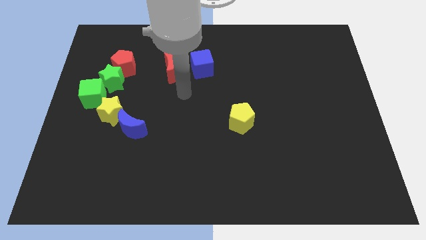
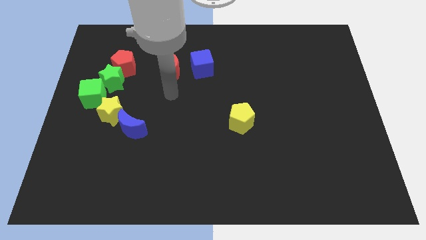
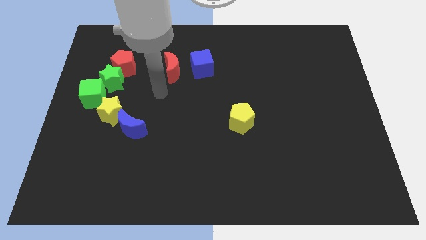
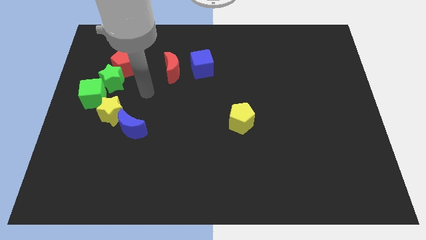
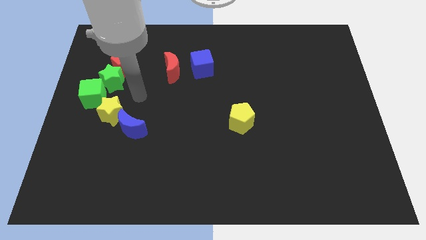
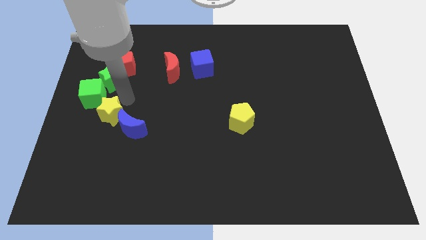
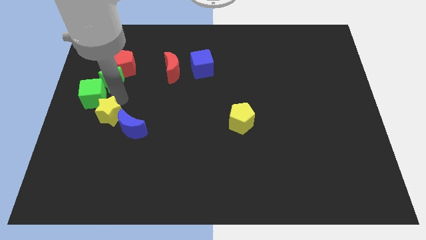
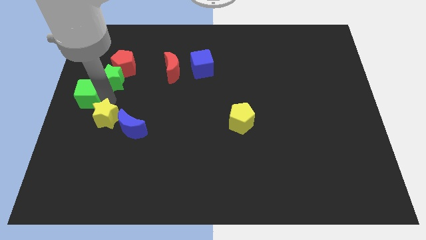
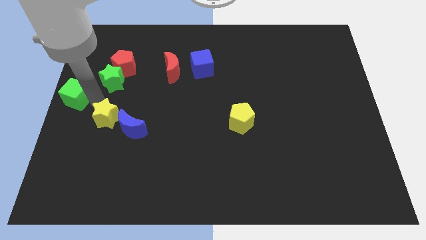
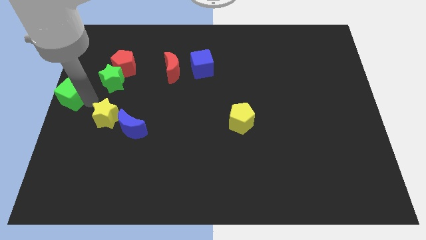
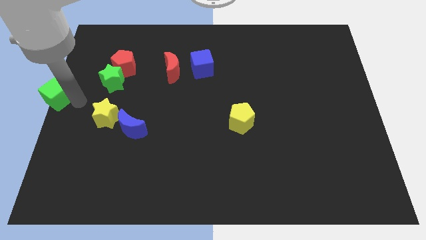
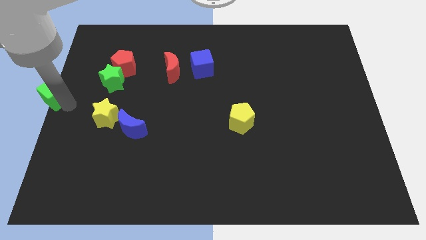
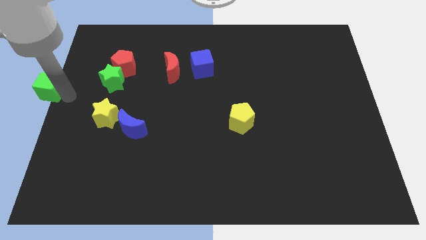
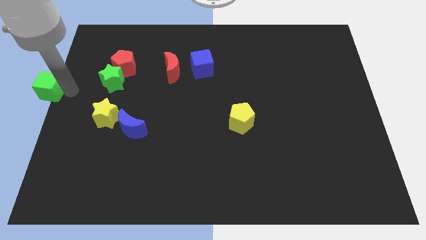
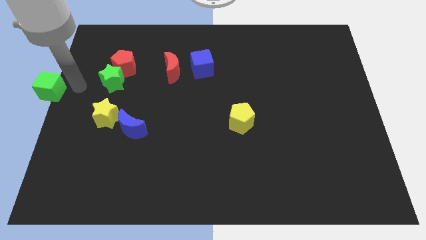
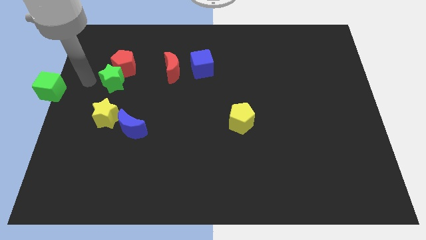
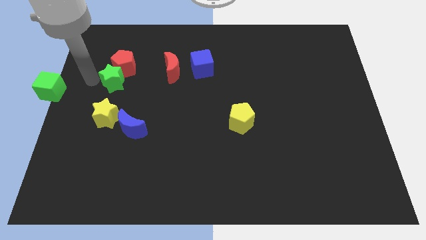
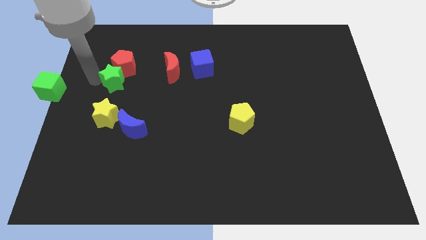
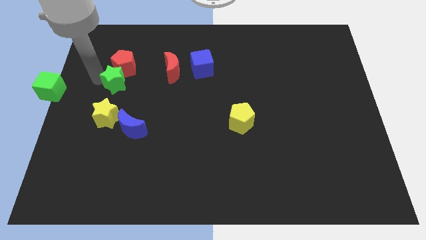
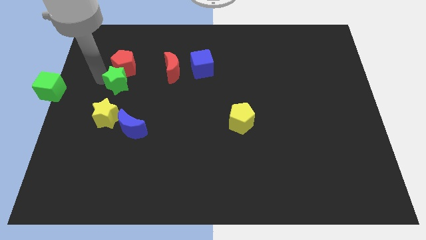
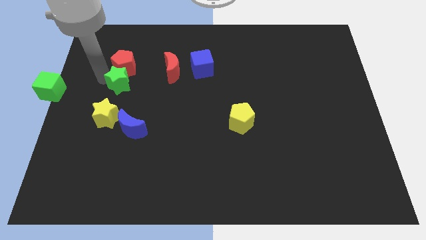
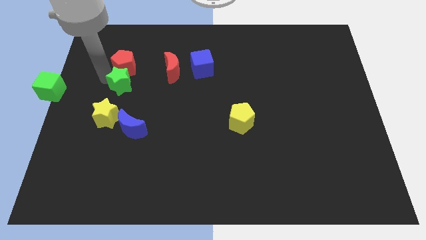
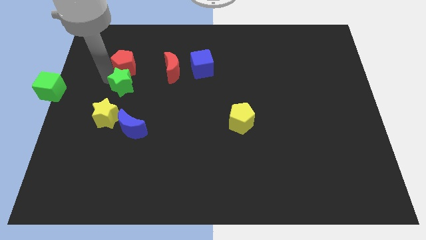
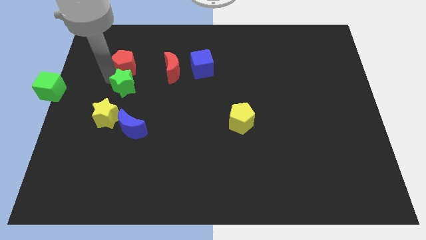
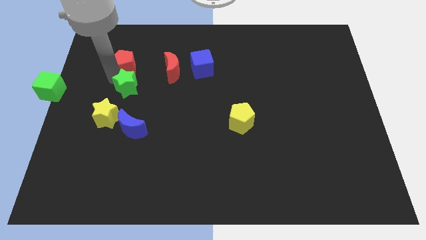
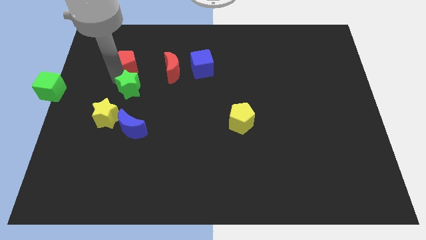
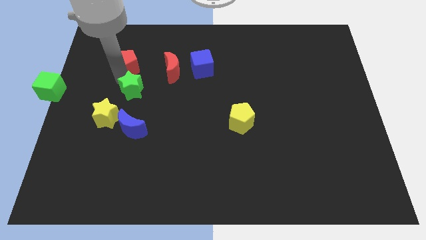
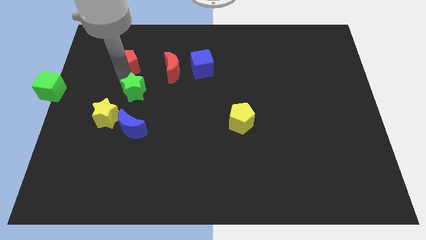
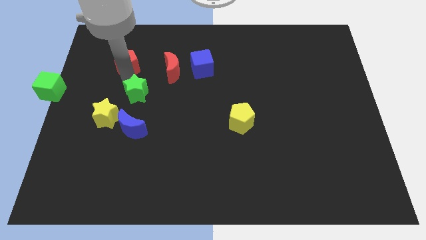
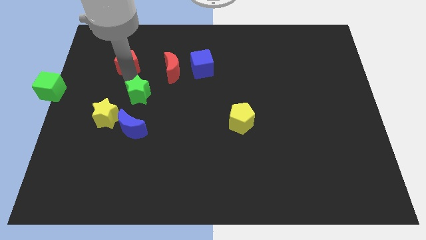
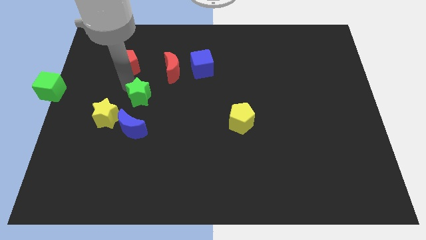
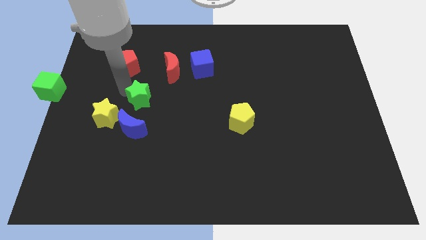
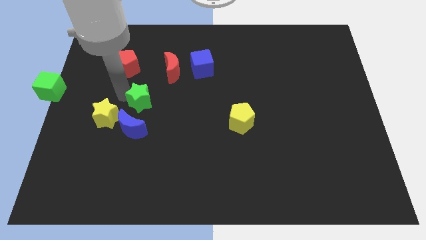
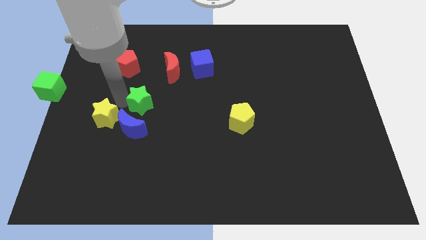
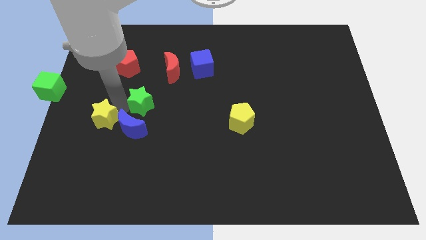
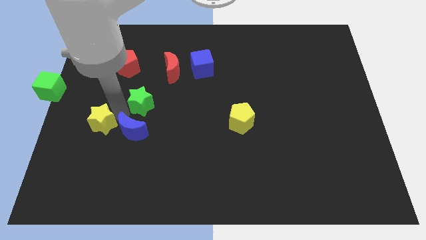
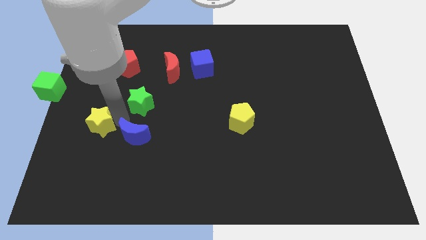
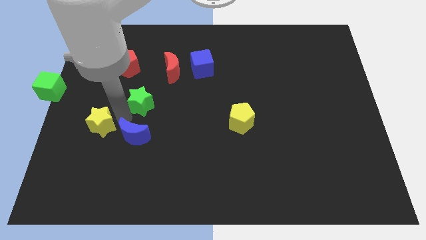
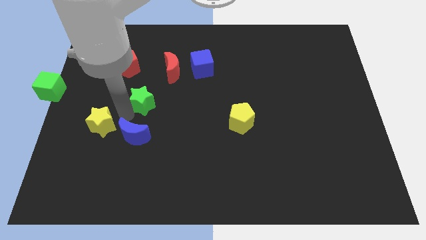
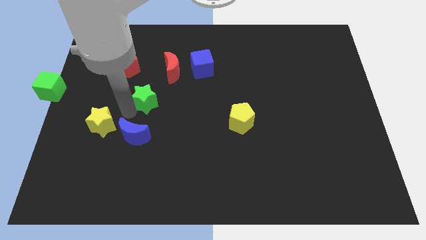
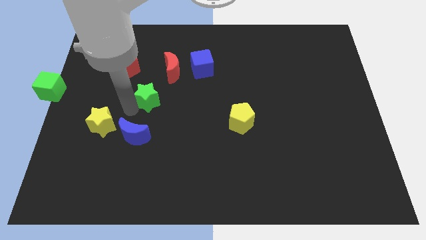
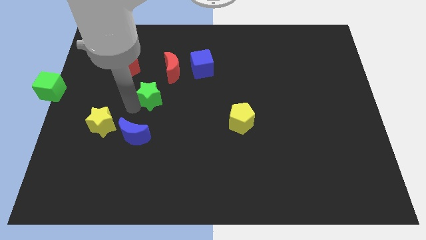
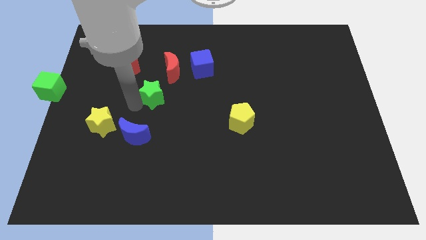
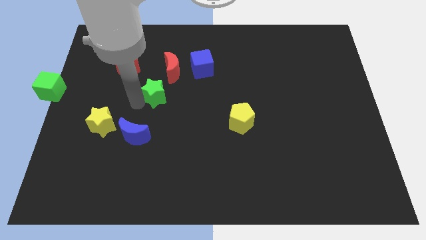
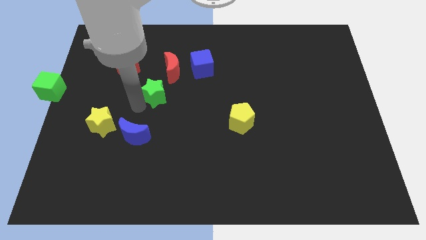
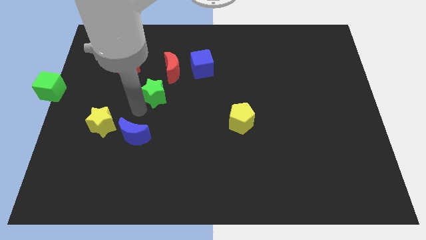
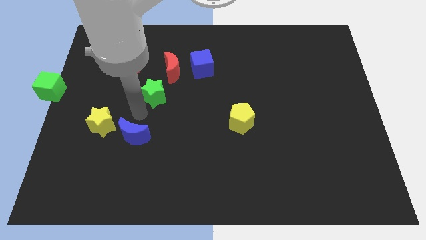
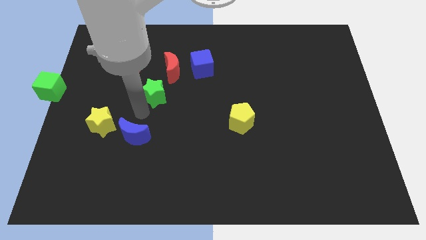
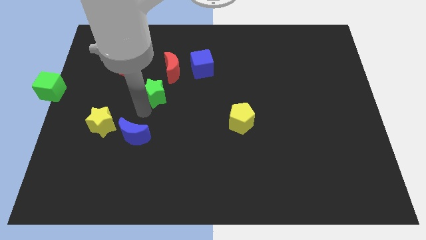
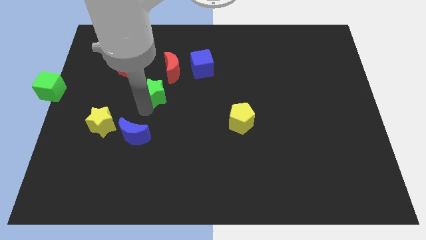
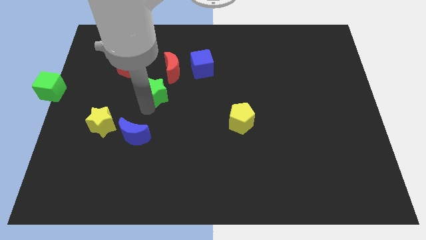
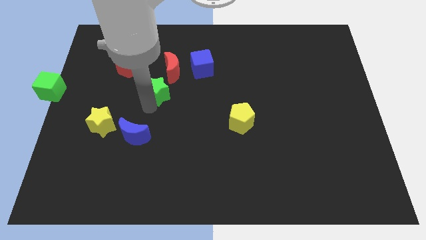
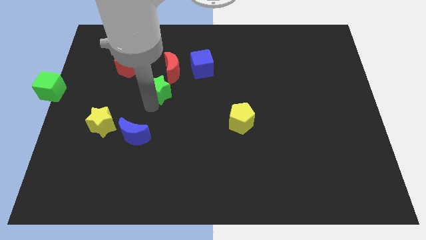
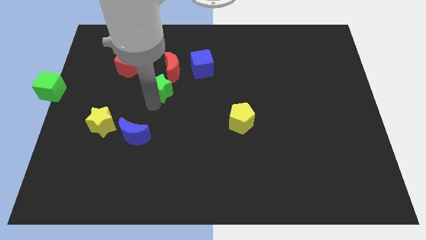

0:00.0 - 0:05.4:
slide the green star to the bottom left of the blue cube

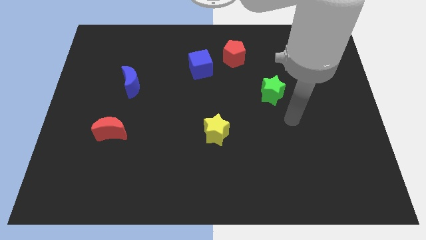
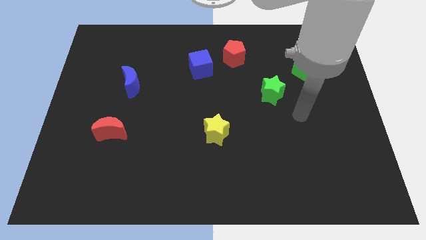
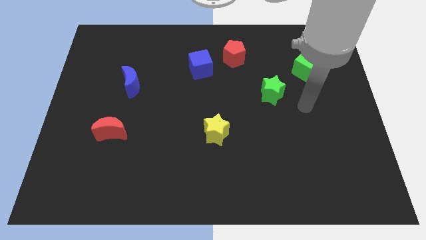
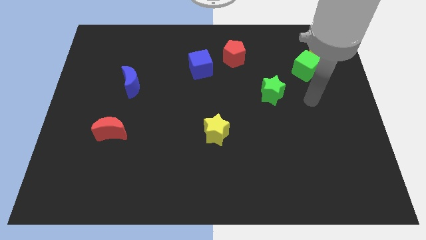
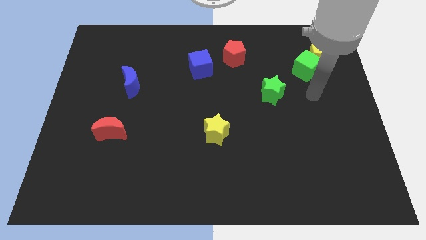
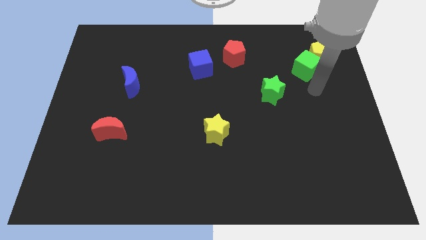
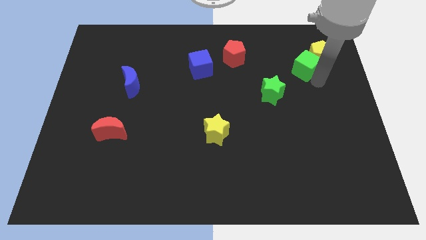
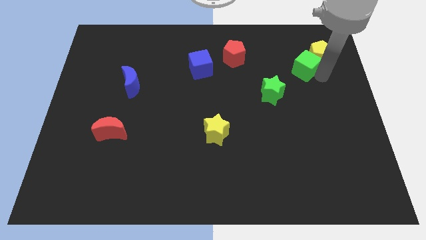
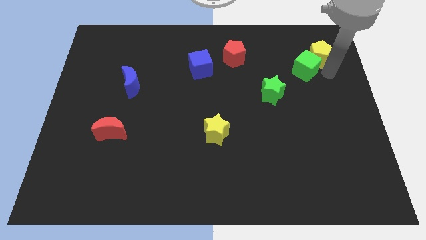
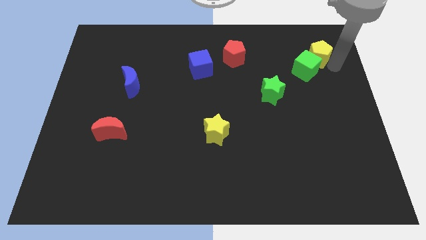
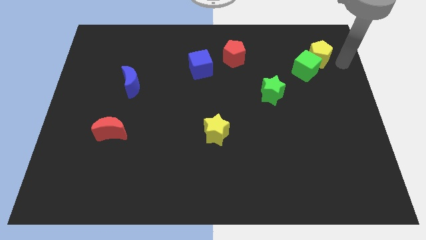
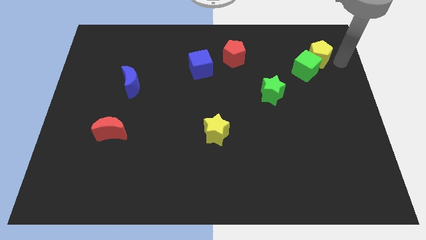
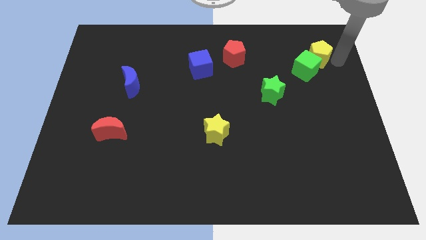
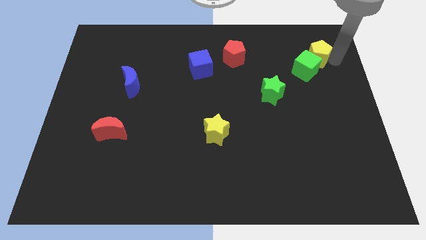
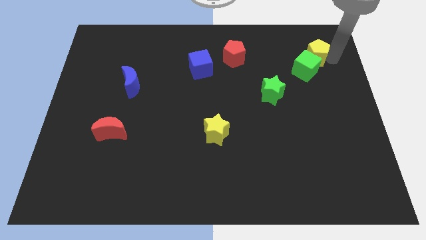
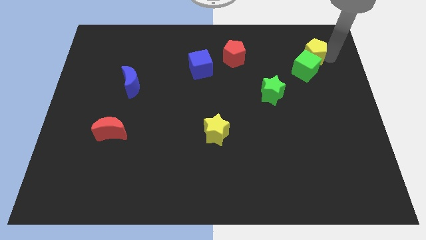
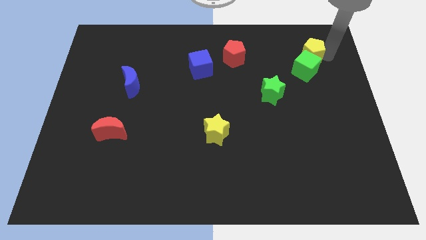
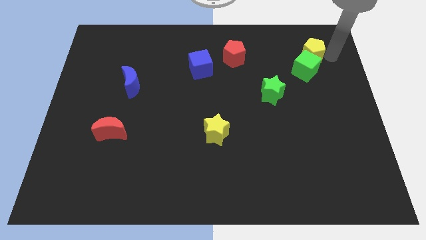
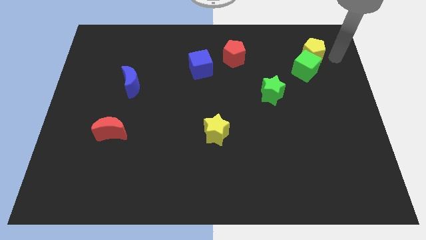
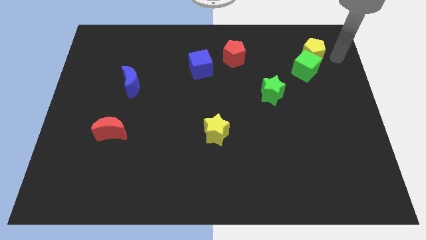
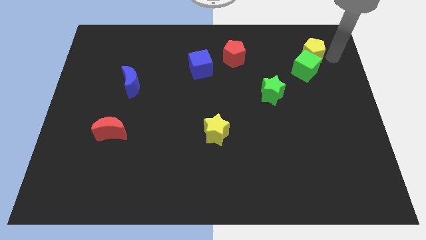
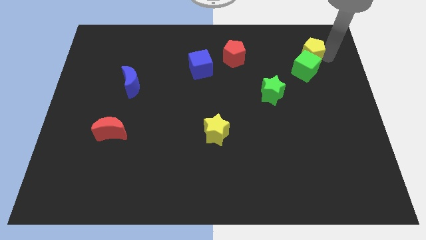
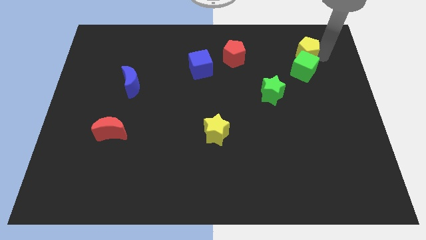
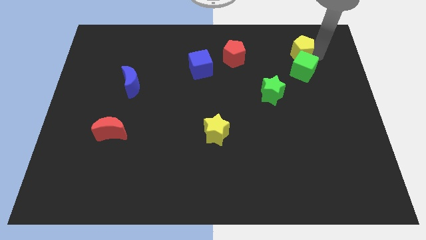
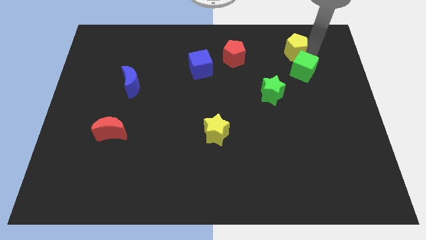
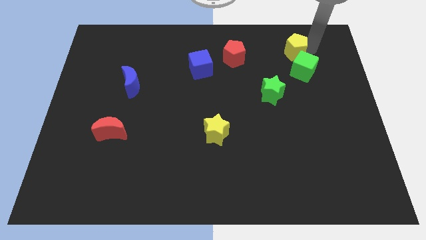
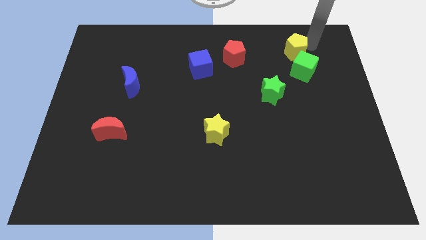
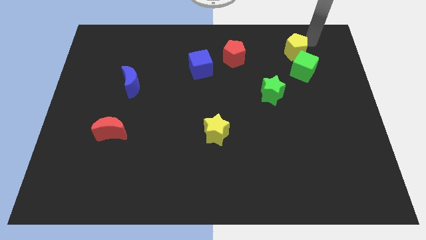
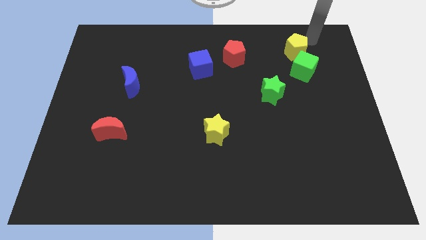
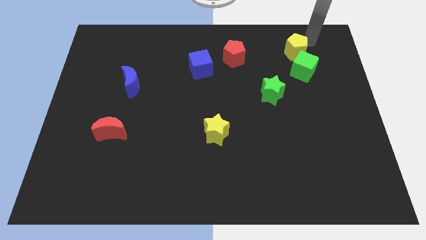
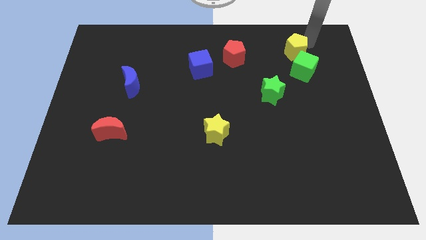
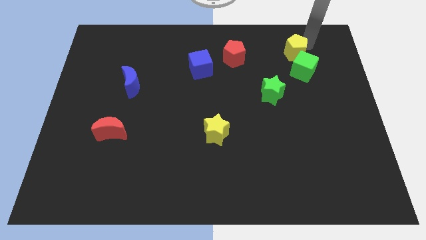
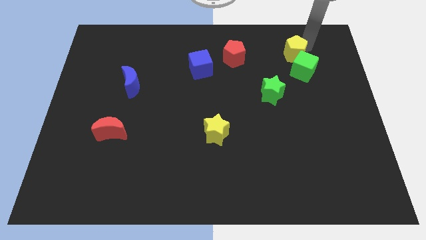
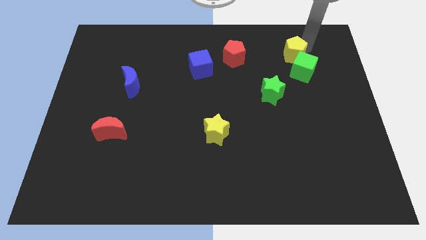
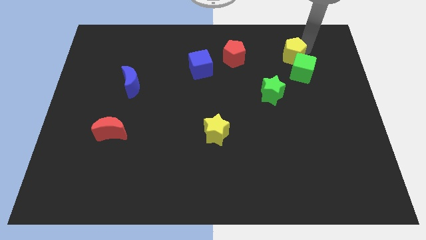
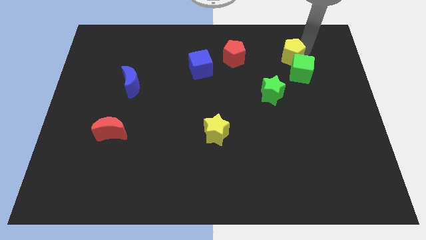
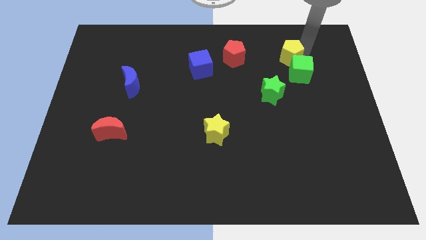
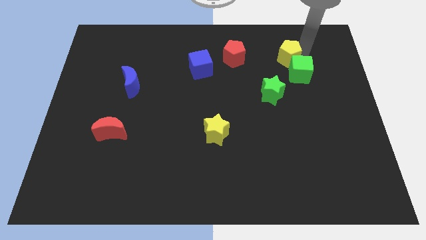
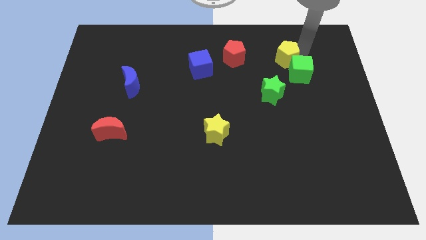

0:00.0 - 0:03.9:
slide the yellow pentagon to the top of the green star
